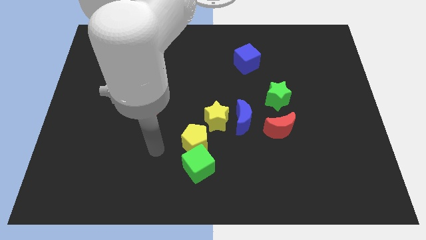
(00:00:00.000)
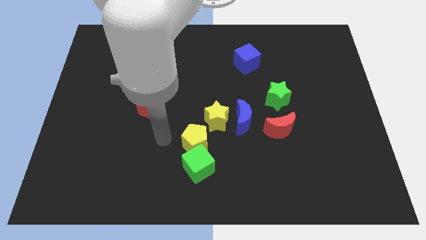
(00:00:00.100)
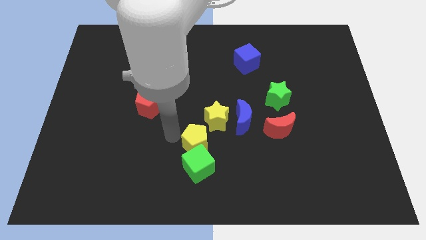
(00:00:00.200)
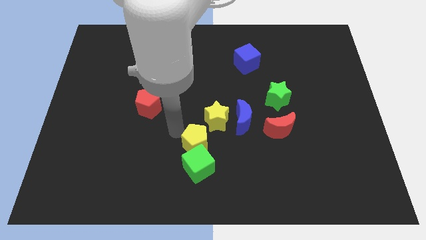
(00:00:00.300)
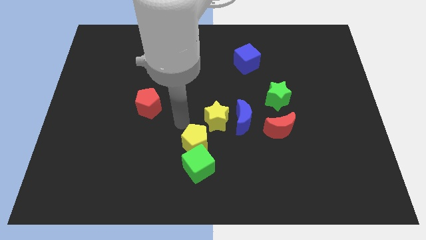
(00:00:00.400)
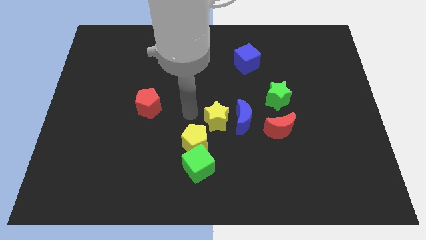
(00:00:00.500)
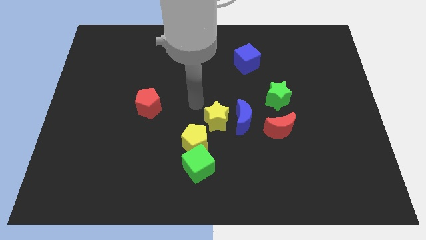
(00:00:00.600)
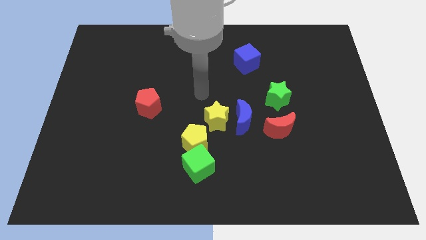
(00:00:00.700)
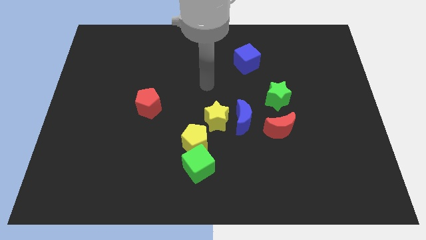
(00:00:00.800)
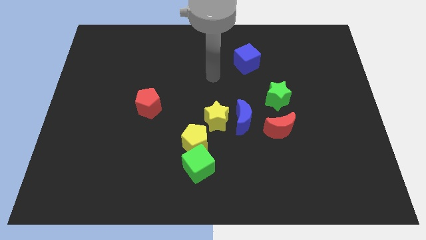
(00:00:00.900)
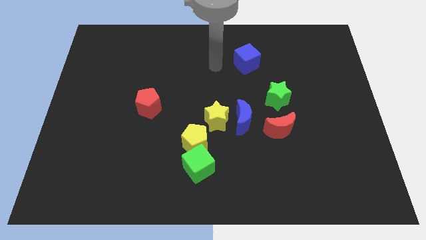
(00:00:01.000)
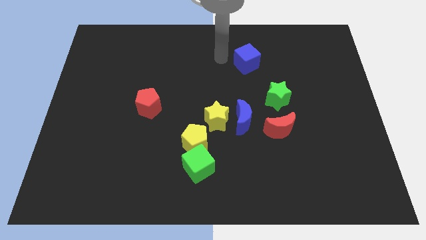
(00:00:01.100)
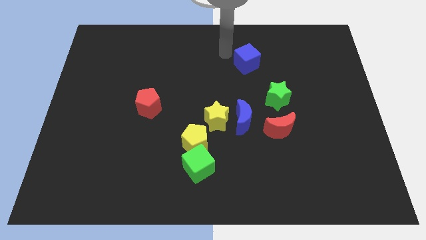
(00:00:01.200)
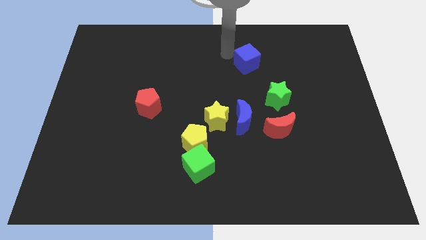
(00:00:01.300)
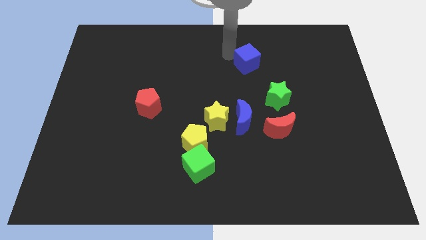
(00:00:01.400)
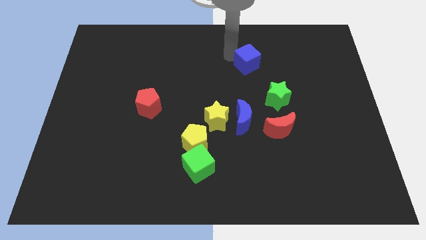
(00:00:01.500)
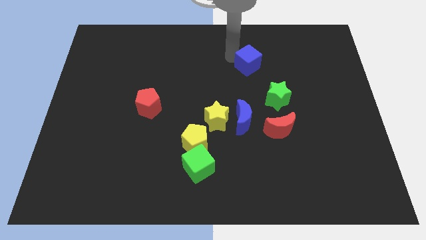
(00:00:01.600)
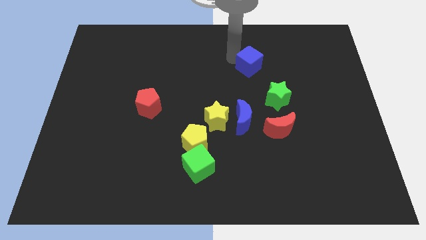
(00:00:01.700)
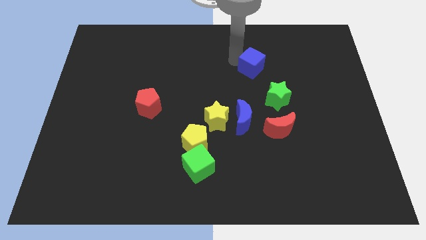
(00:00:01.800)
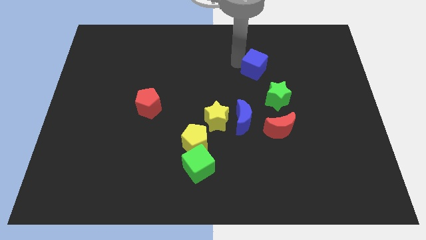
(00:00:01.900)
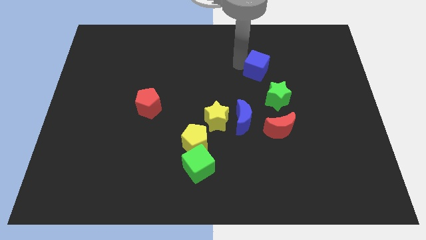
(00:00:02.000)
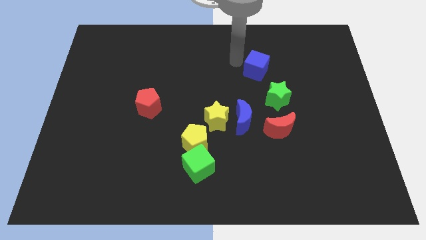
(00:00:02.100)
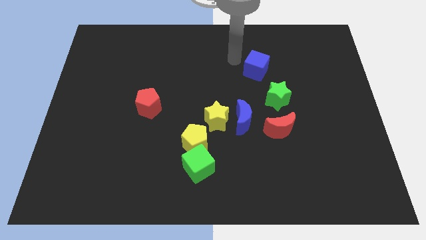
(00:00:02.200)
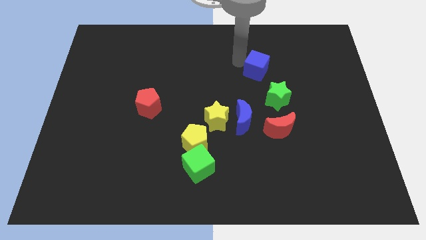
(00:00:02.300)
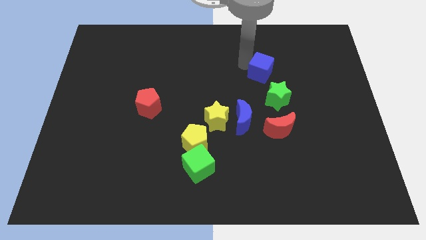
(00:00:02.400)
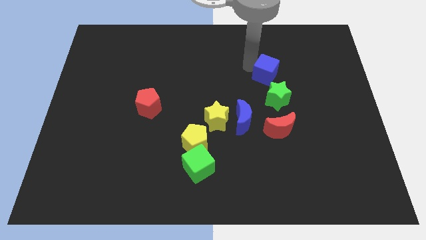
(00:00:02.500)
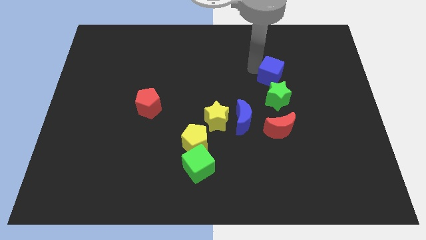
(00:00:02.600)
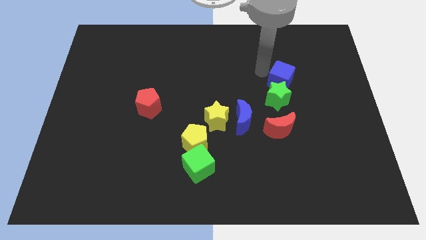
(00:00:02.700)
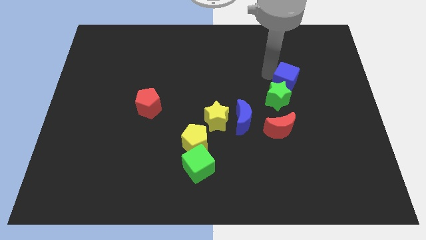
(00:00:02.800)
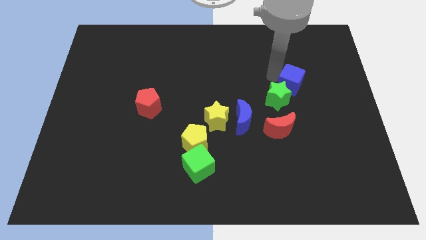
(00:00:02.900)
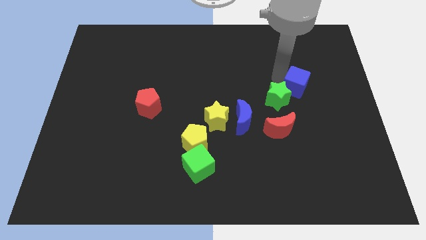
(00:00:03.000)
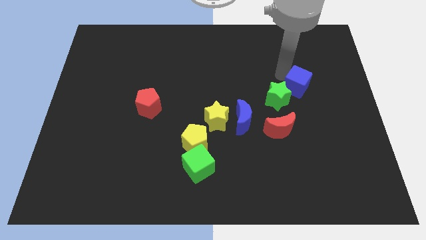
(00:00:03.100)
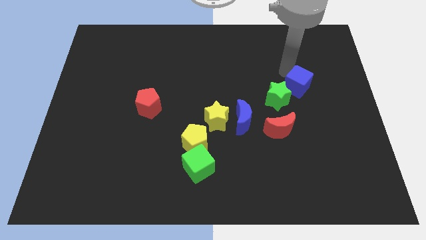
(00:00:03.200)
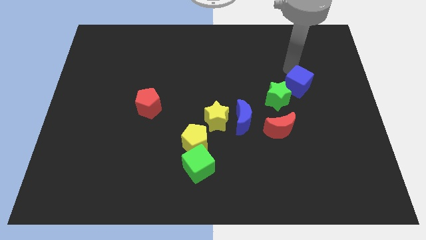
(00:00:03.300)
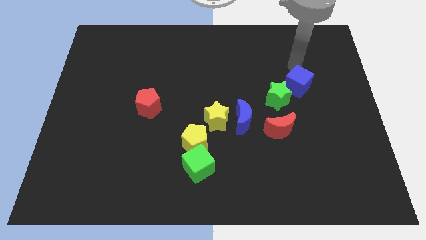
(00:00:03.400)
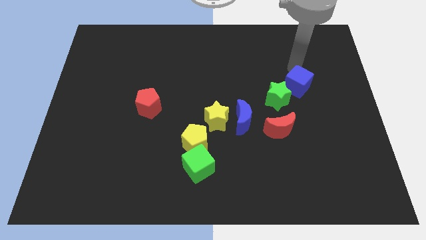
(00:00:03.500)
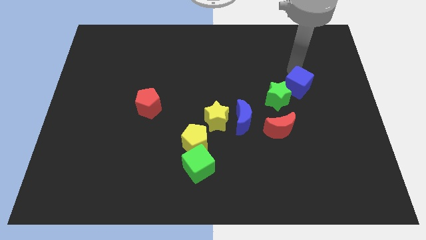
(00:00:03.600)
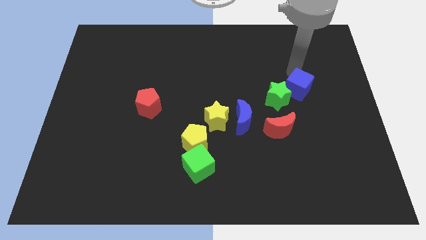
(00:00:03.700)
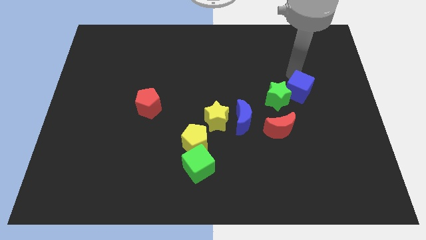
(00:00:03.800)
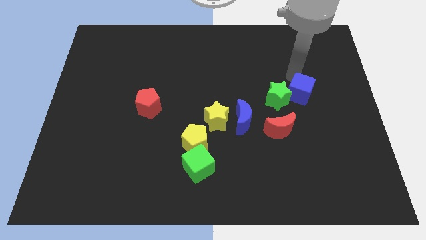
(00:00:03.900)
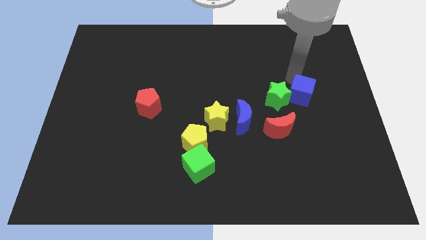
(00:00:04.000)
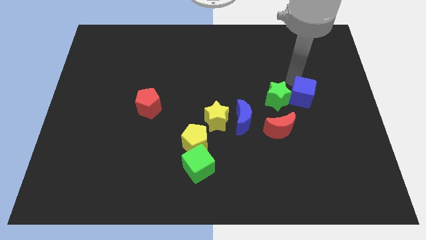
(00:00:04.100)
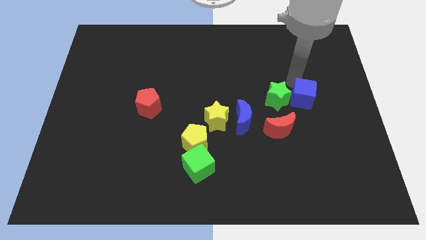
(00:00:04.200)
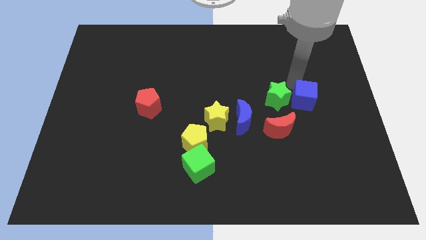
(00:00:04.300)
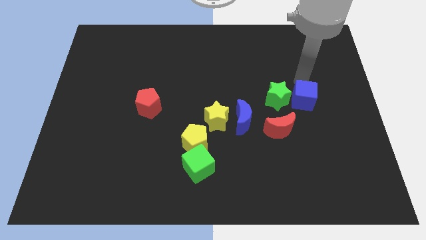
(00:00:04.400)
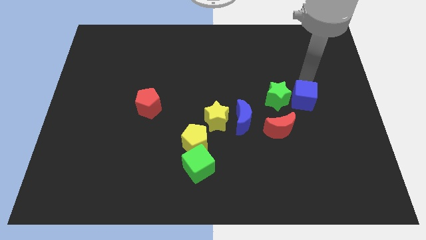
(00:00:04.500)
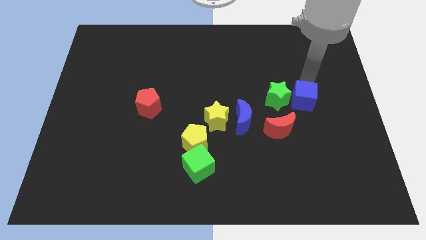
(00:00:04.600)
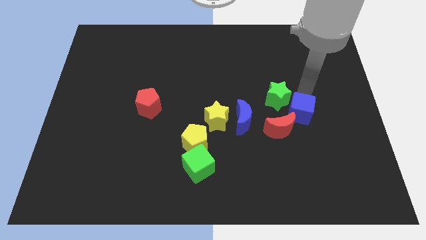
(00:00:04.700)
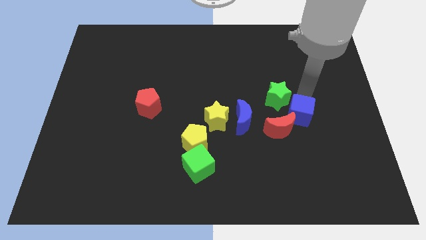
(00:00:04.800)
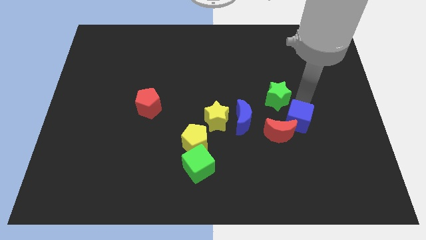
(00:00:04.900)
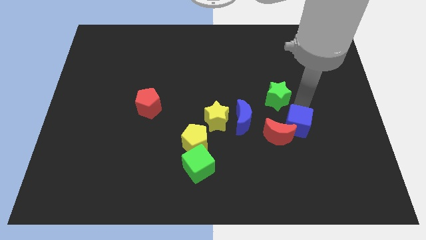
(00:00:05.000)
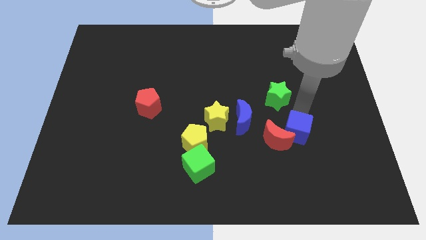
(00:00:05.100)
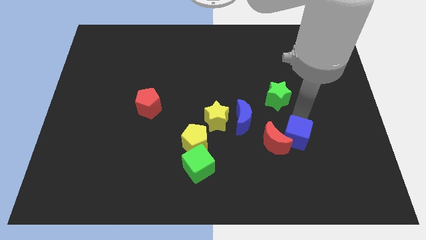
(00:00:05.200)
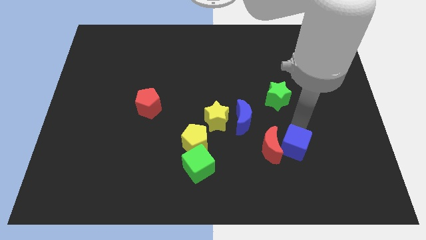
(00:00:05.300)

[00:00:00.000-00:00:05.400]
push the blue cube downwards

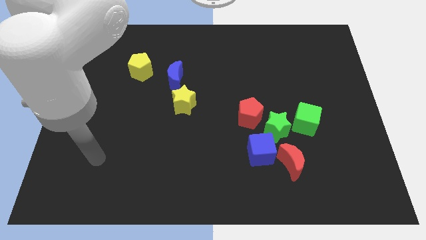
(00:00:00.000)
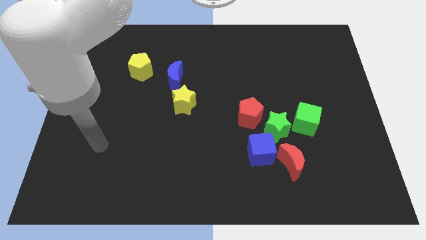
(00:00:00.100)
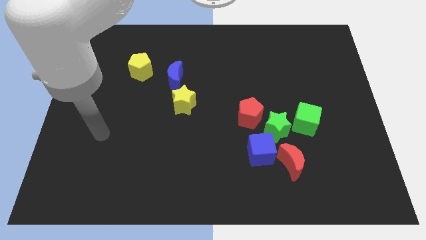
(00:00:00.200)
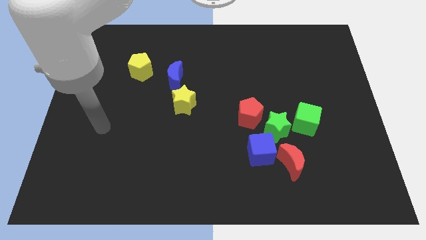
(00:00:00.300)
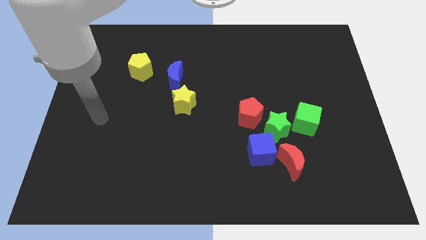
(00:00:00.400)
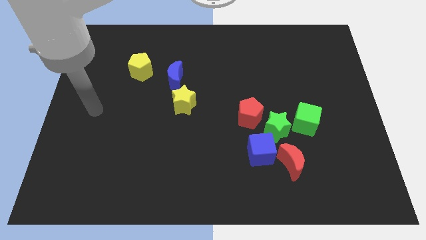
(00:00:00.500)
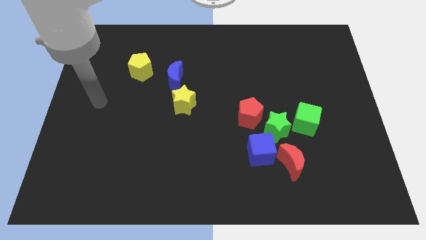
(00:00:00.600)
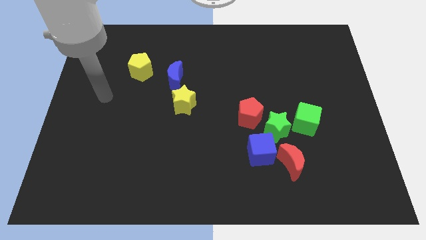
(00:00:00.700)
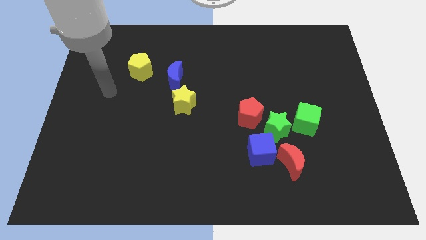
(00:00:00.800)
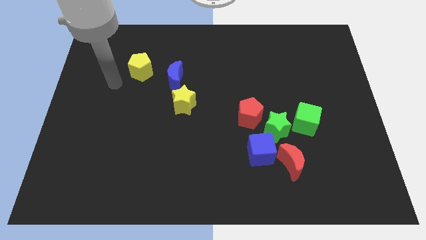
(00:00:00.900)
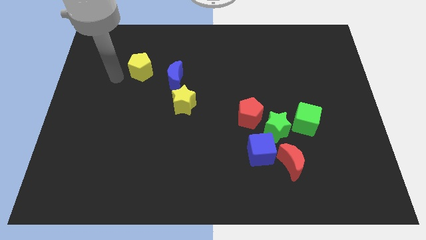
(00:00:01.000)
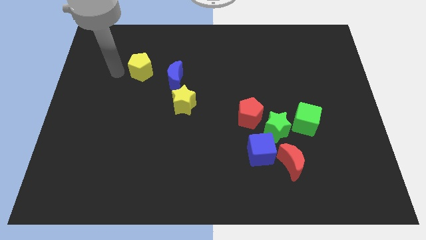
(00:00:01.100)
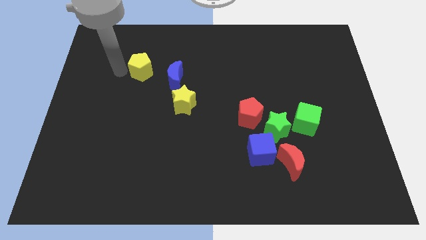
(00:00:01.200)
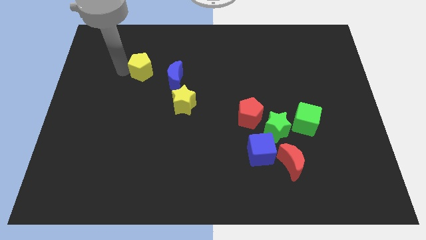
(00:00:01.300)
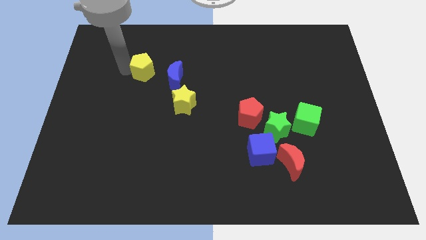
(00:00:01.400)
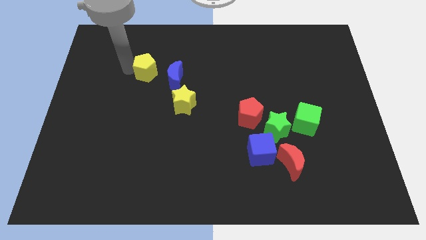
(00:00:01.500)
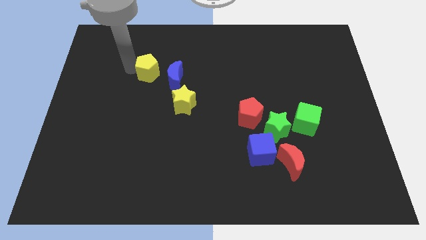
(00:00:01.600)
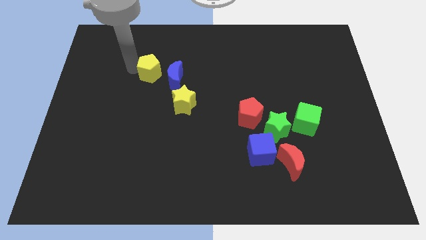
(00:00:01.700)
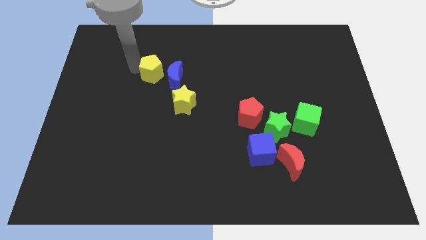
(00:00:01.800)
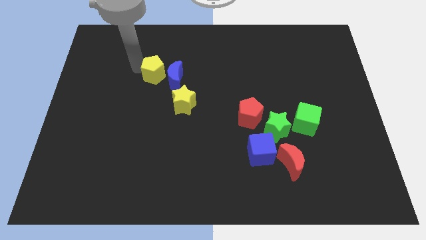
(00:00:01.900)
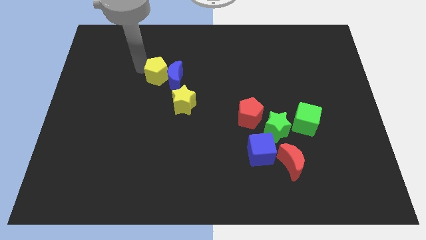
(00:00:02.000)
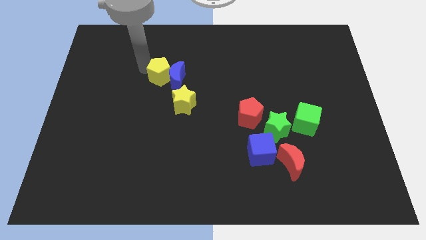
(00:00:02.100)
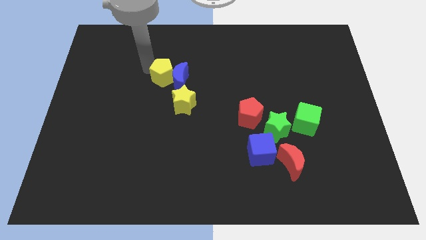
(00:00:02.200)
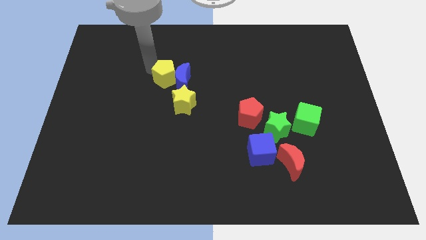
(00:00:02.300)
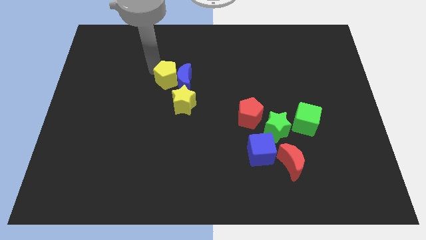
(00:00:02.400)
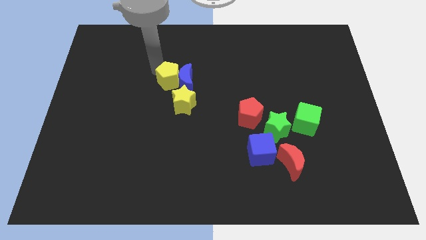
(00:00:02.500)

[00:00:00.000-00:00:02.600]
move the yellow pentagon slightly to the right
